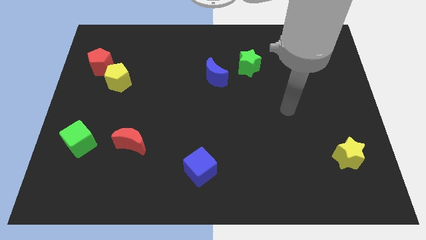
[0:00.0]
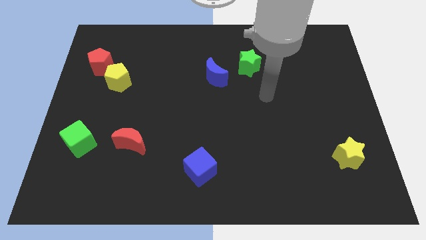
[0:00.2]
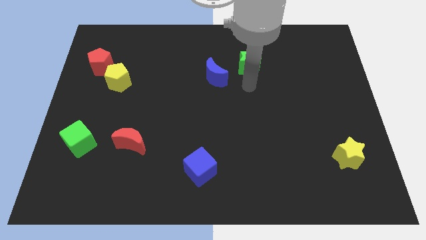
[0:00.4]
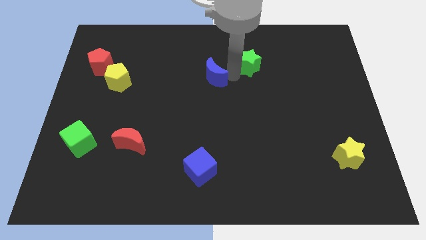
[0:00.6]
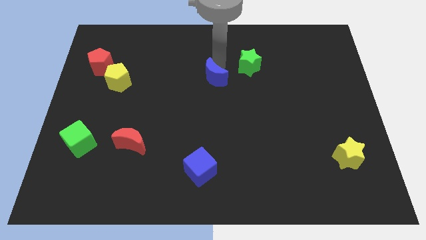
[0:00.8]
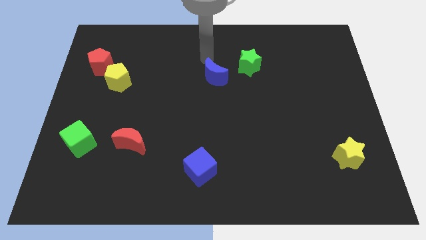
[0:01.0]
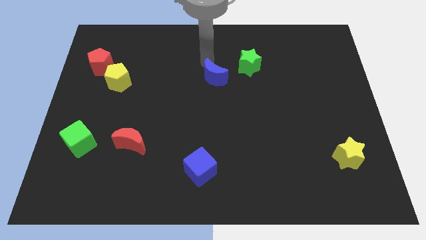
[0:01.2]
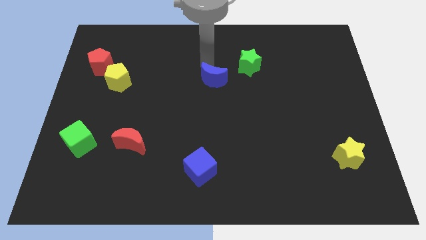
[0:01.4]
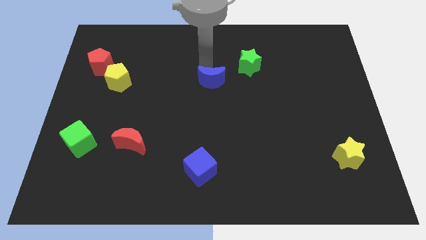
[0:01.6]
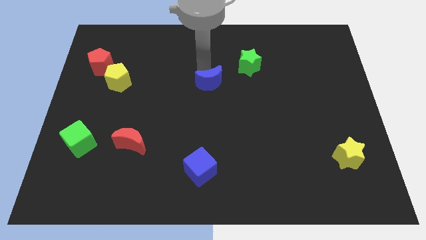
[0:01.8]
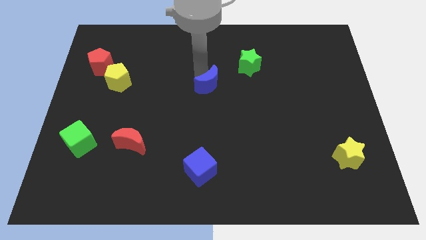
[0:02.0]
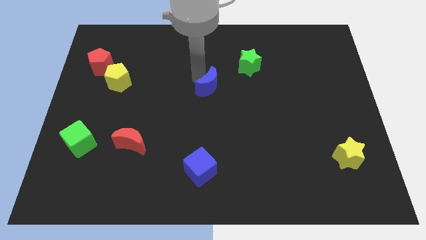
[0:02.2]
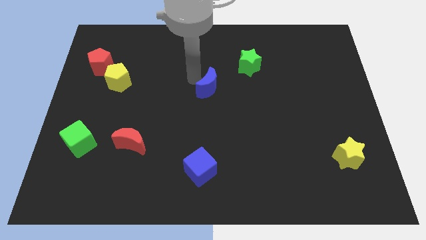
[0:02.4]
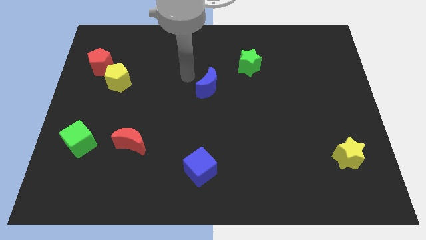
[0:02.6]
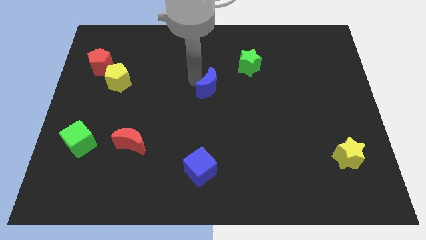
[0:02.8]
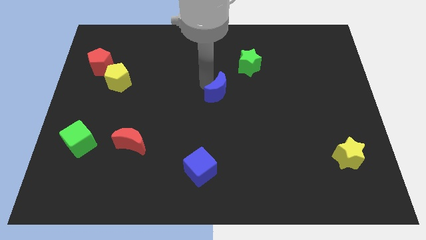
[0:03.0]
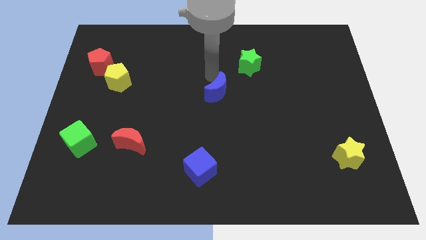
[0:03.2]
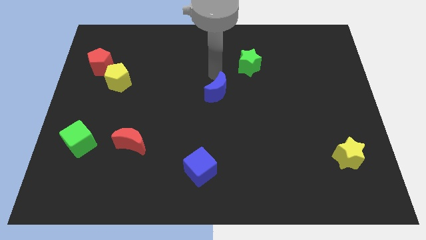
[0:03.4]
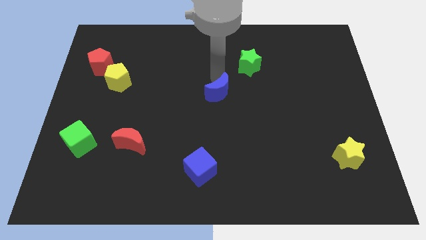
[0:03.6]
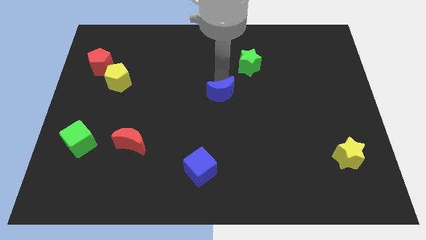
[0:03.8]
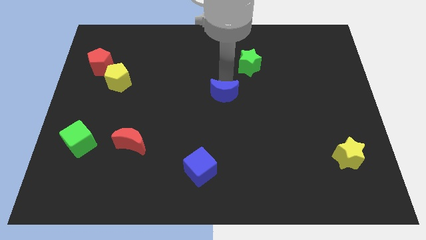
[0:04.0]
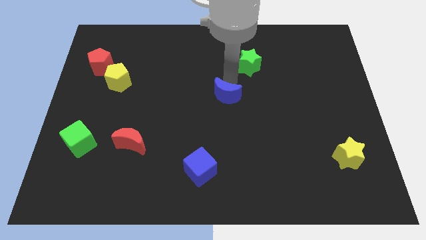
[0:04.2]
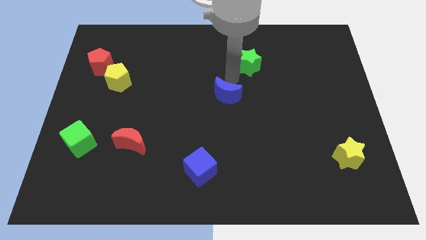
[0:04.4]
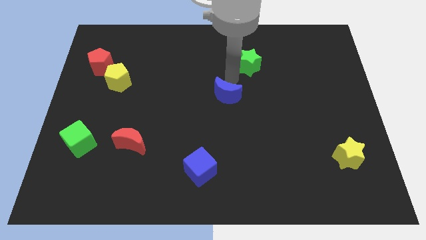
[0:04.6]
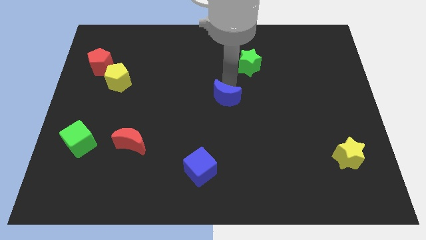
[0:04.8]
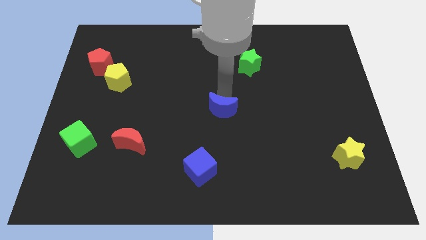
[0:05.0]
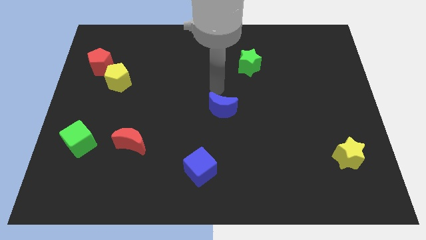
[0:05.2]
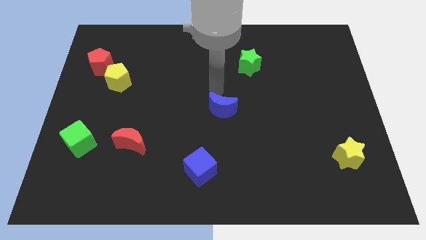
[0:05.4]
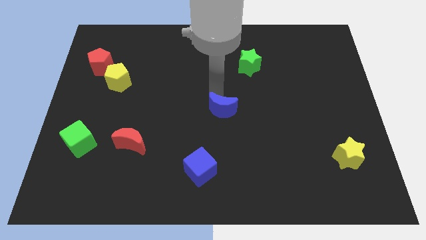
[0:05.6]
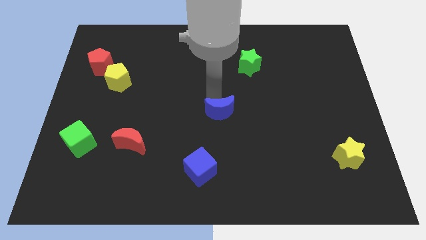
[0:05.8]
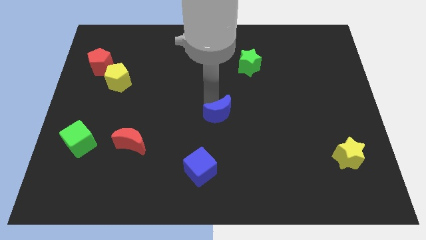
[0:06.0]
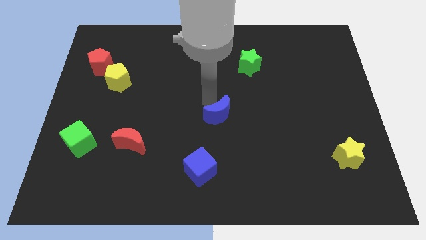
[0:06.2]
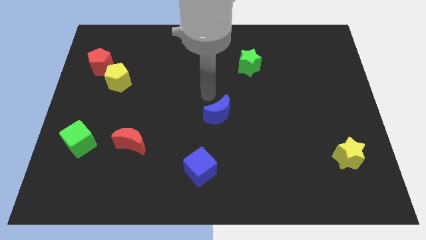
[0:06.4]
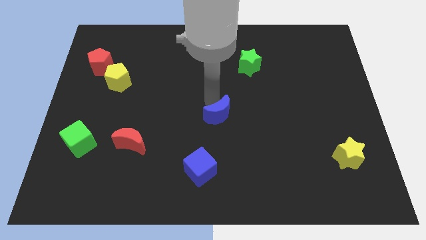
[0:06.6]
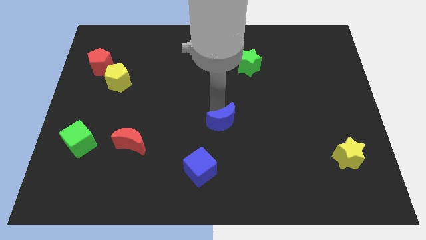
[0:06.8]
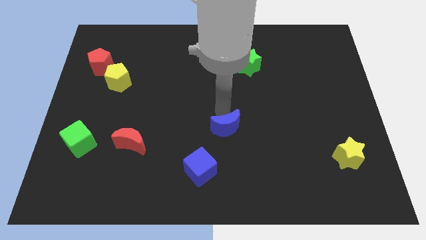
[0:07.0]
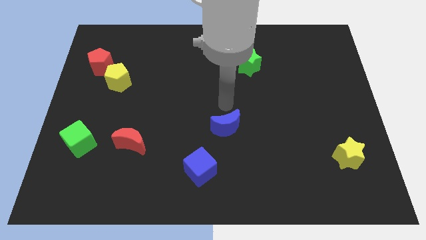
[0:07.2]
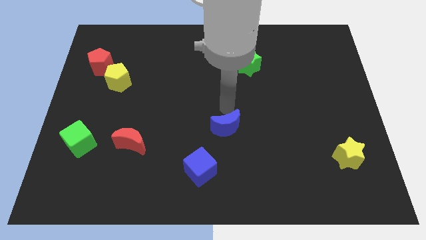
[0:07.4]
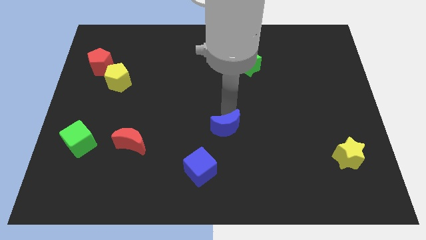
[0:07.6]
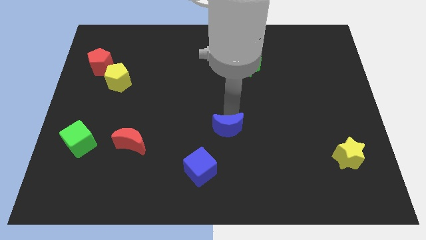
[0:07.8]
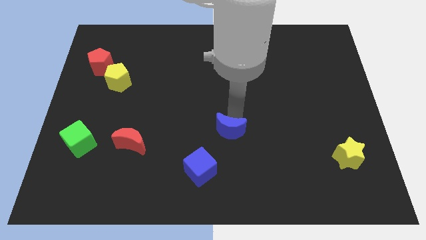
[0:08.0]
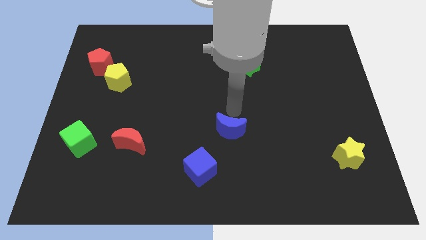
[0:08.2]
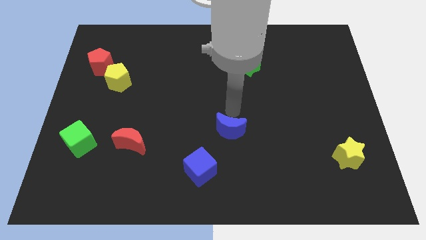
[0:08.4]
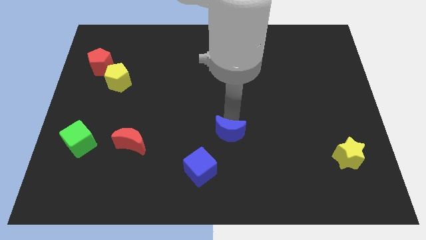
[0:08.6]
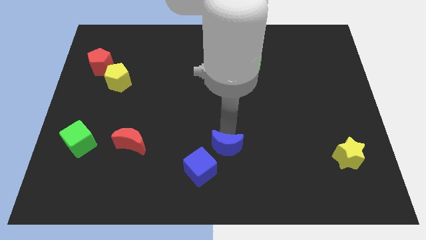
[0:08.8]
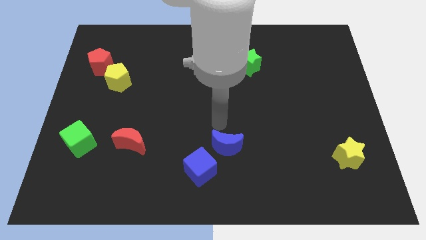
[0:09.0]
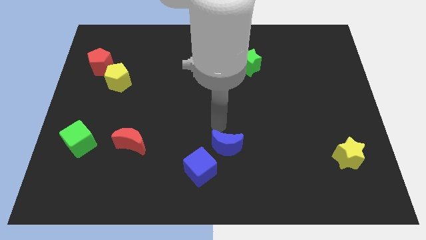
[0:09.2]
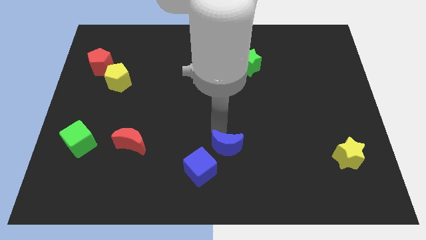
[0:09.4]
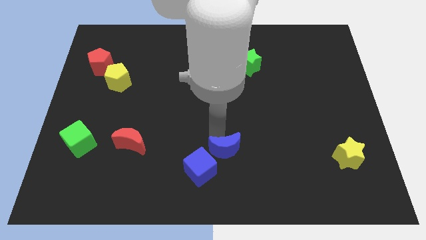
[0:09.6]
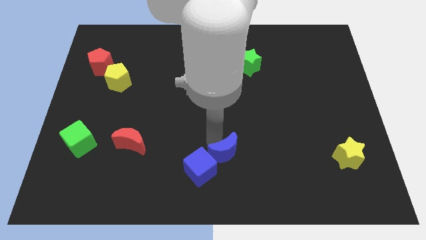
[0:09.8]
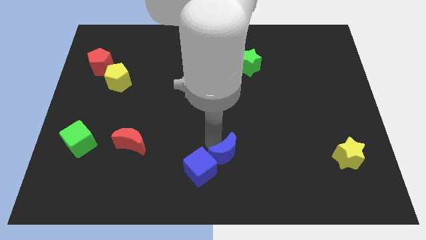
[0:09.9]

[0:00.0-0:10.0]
push the blue moon to the bottom

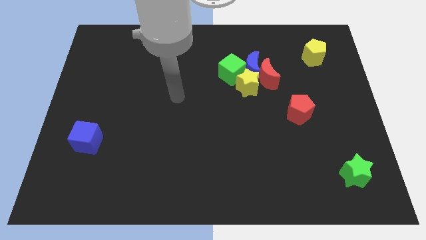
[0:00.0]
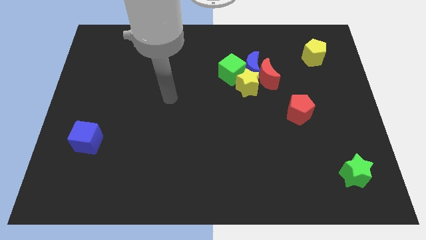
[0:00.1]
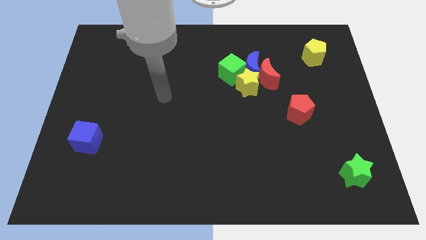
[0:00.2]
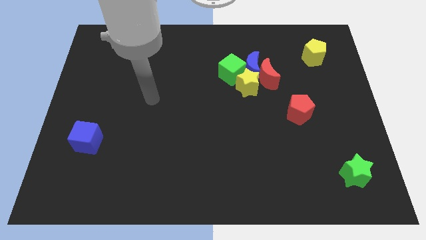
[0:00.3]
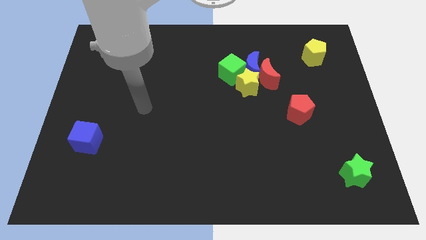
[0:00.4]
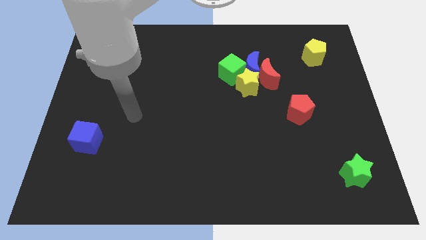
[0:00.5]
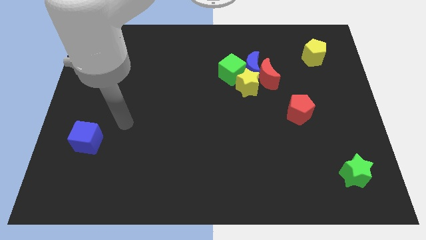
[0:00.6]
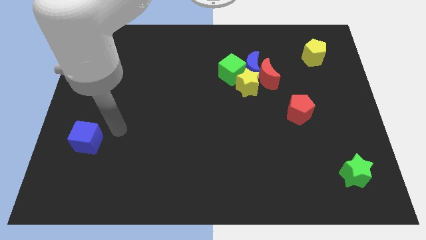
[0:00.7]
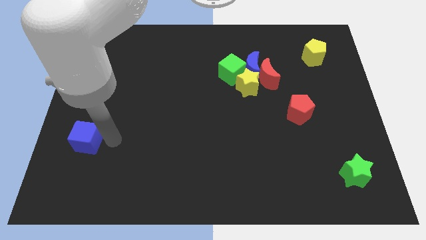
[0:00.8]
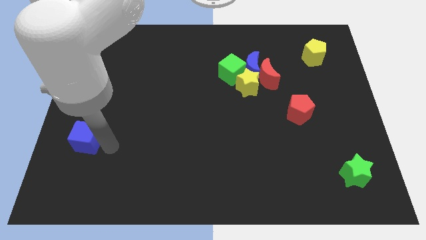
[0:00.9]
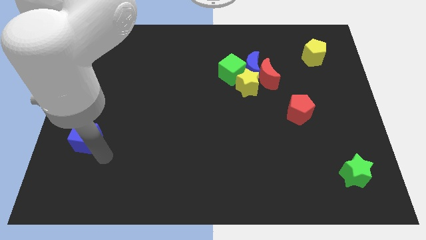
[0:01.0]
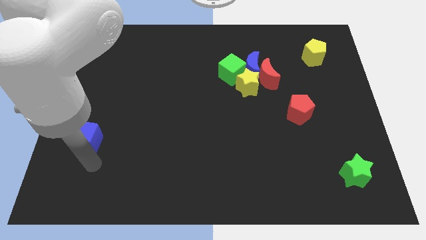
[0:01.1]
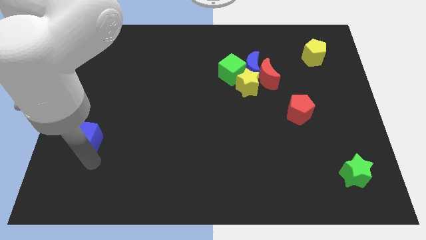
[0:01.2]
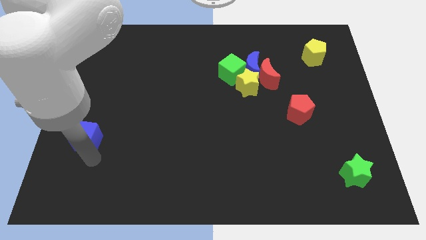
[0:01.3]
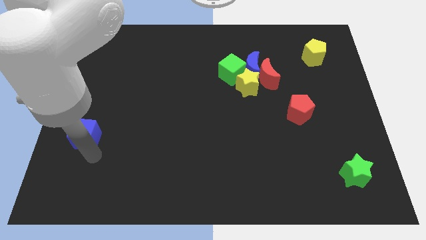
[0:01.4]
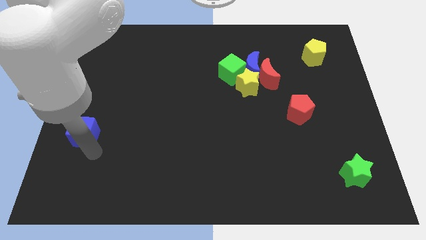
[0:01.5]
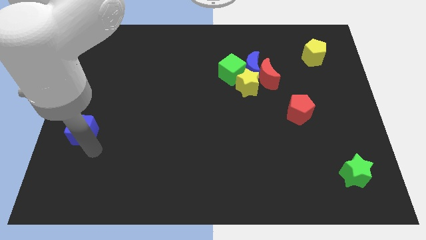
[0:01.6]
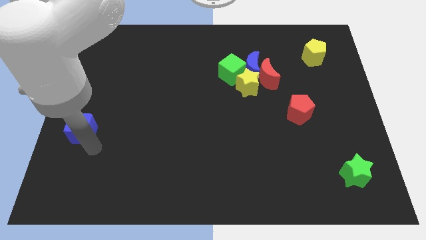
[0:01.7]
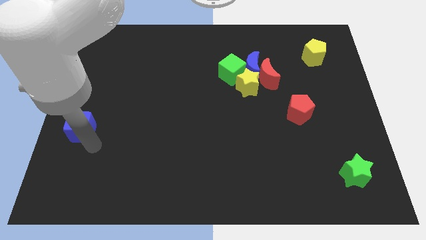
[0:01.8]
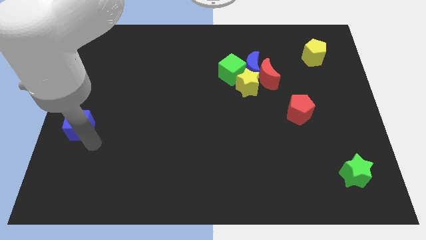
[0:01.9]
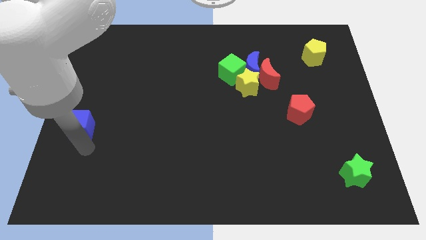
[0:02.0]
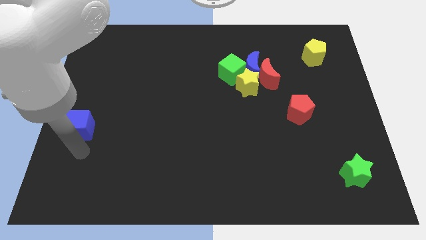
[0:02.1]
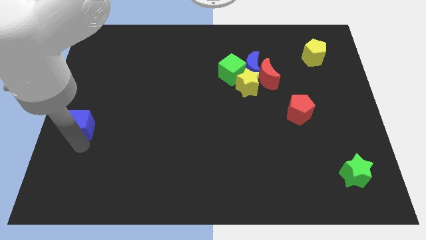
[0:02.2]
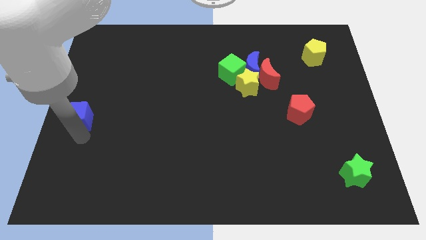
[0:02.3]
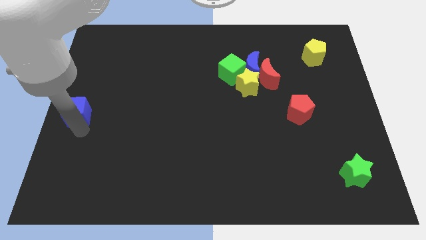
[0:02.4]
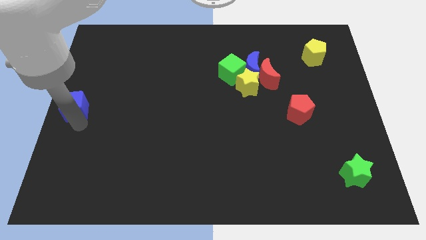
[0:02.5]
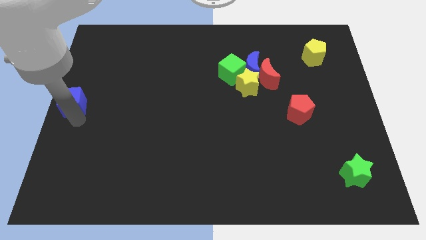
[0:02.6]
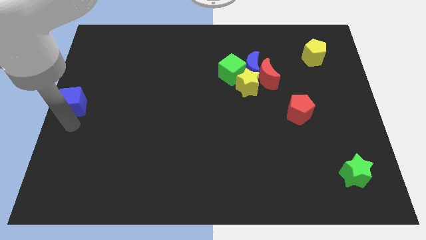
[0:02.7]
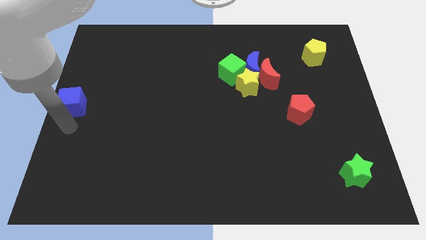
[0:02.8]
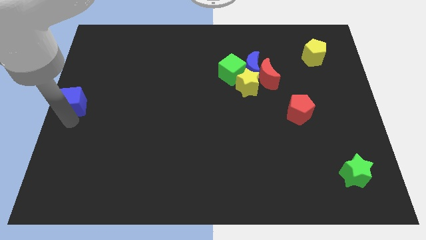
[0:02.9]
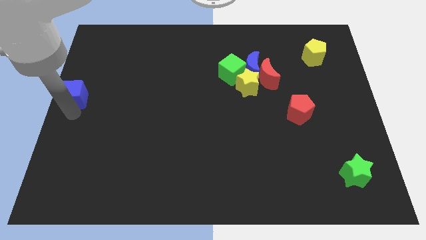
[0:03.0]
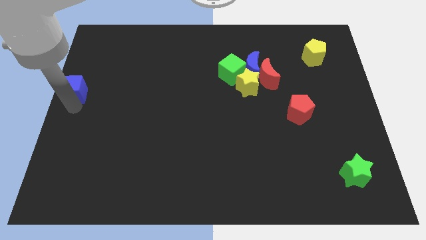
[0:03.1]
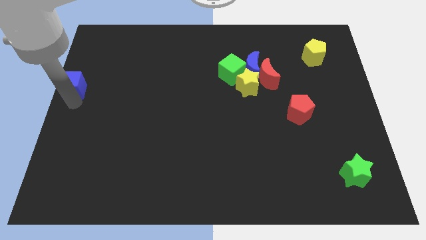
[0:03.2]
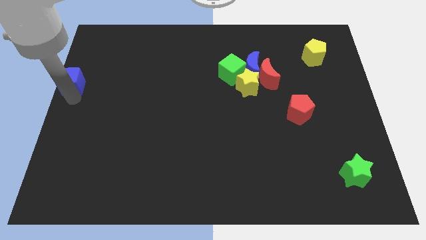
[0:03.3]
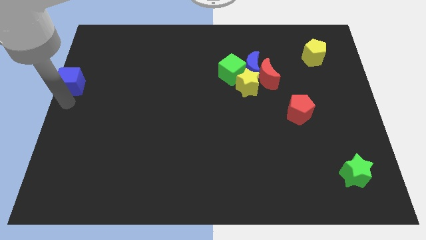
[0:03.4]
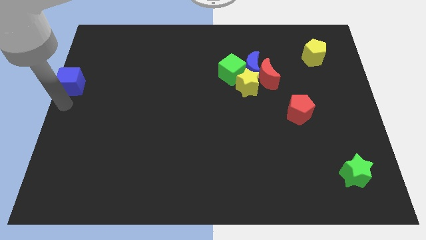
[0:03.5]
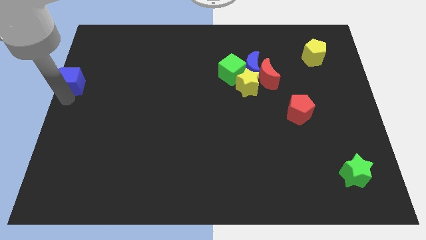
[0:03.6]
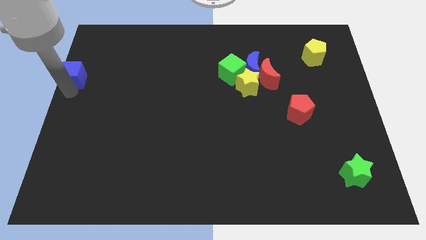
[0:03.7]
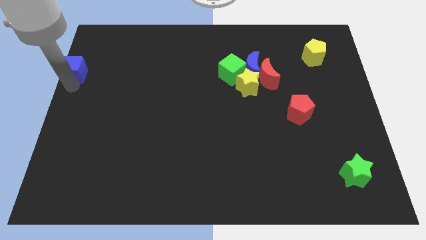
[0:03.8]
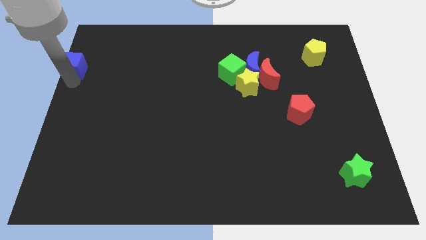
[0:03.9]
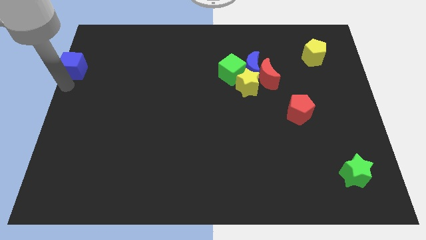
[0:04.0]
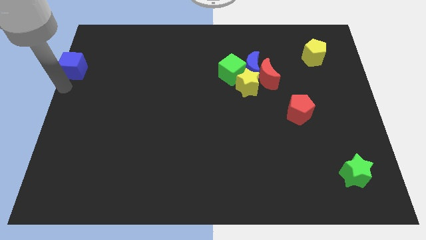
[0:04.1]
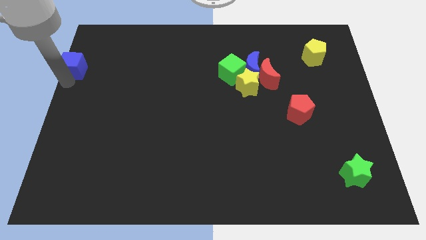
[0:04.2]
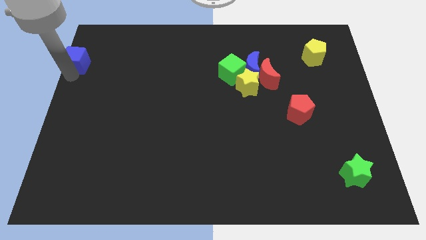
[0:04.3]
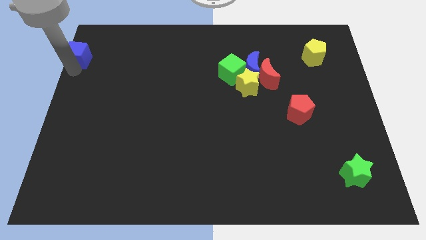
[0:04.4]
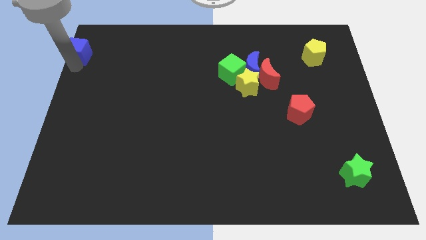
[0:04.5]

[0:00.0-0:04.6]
put the blue cube to the top left corner
